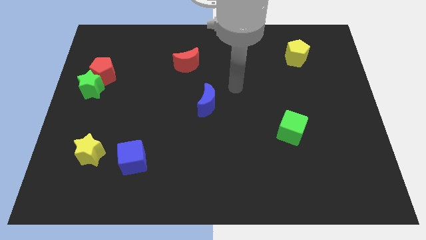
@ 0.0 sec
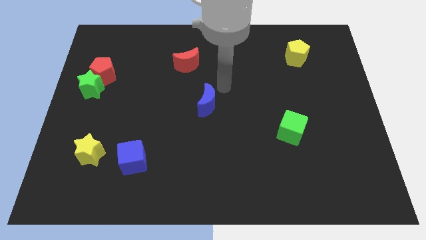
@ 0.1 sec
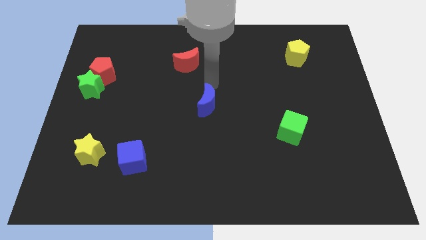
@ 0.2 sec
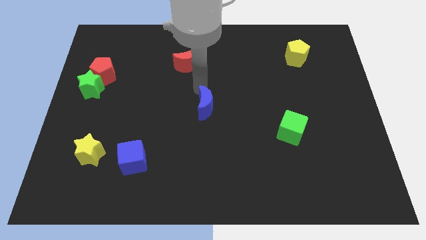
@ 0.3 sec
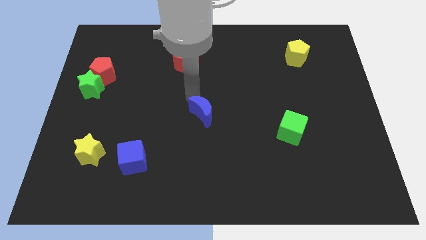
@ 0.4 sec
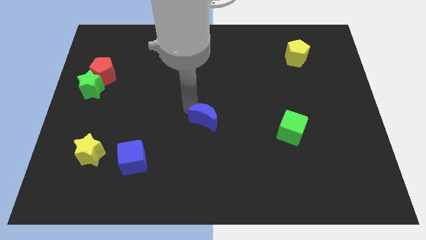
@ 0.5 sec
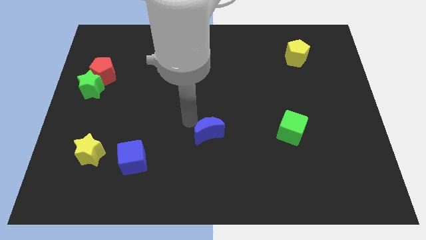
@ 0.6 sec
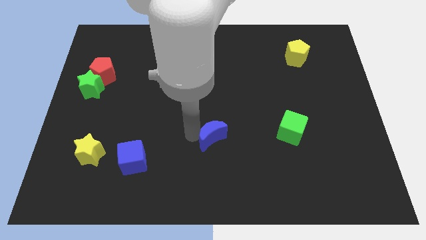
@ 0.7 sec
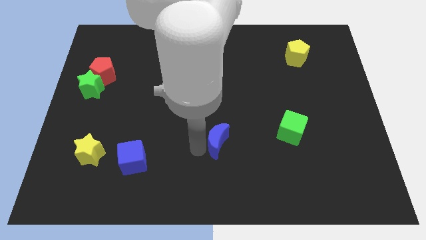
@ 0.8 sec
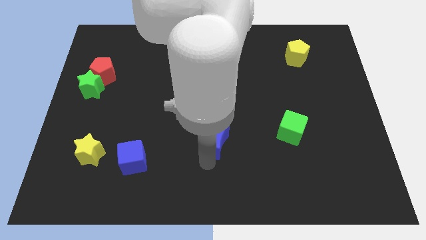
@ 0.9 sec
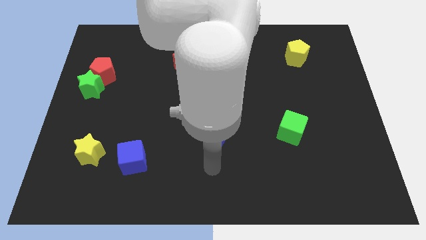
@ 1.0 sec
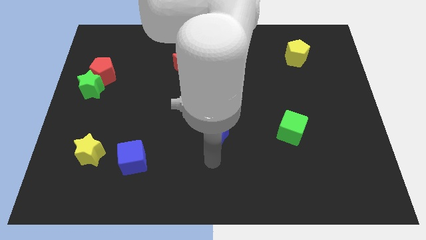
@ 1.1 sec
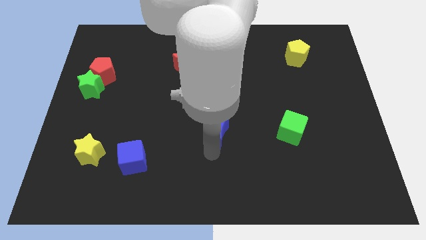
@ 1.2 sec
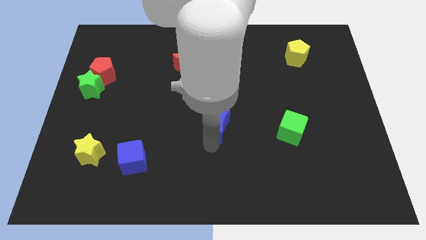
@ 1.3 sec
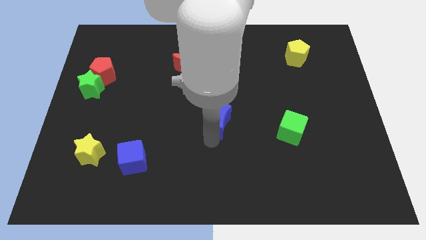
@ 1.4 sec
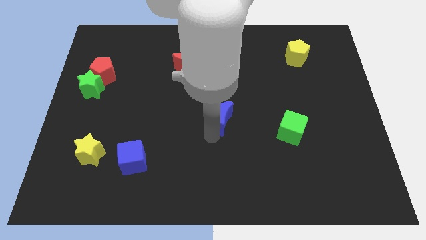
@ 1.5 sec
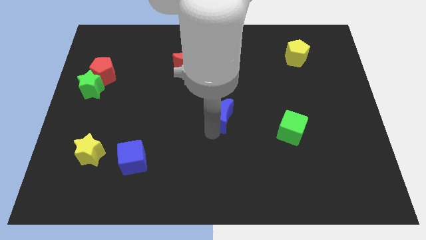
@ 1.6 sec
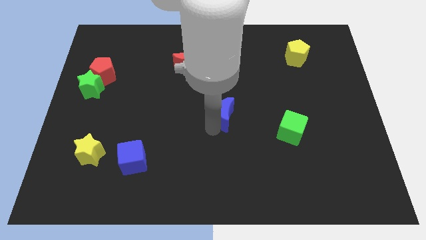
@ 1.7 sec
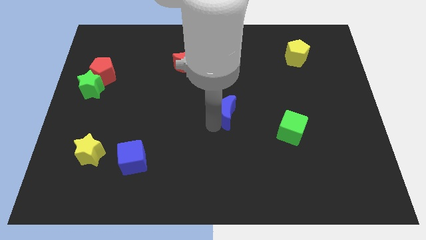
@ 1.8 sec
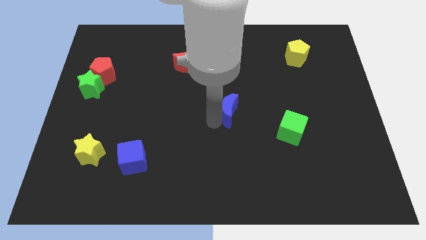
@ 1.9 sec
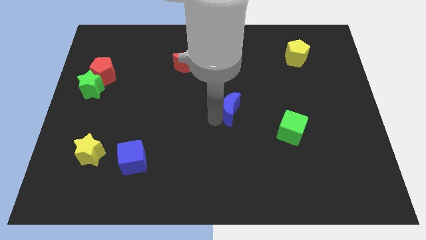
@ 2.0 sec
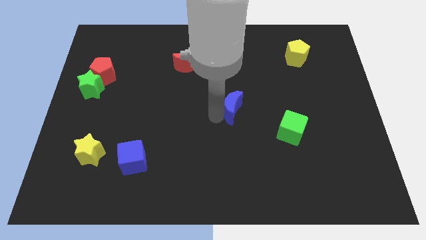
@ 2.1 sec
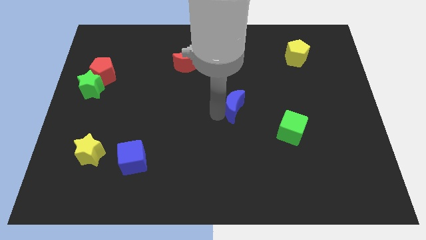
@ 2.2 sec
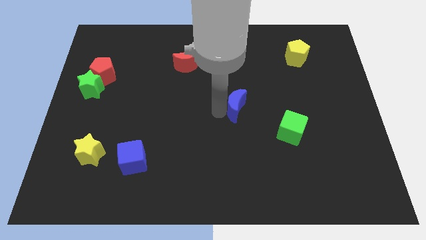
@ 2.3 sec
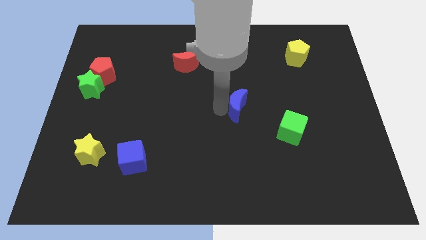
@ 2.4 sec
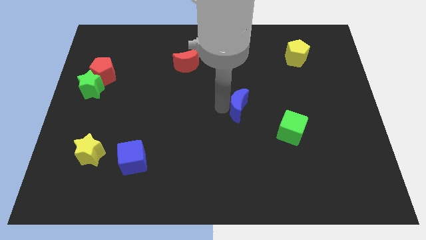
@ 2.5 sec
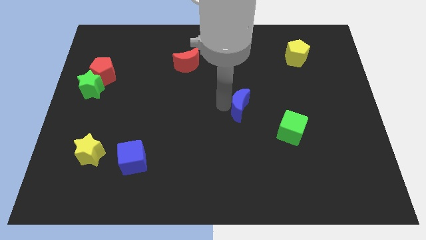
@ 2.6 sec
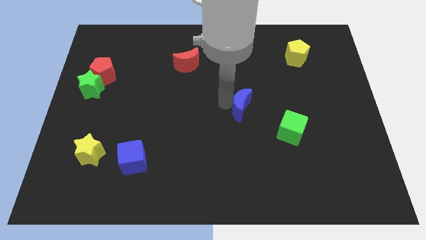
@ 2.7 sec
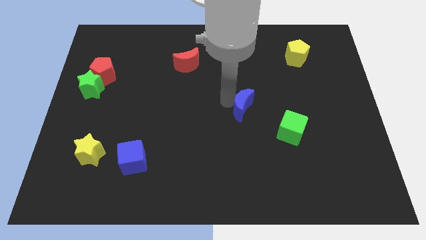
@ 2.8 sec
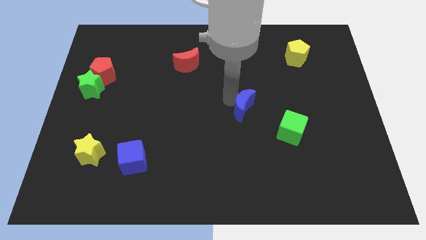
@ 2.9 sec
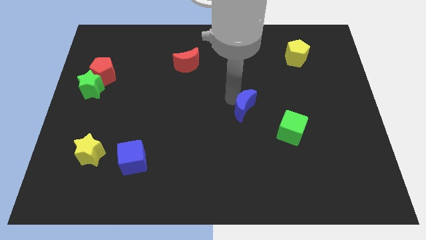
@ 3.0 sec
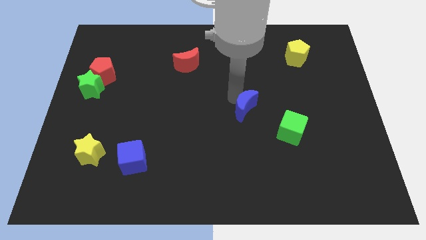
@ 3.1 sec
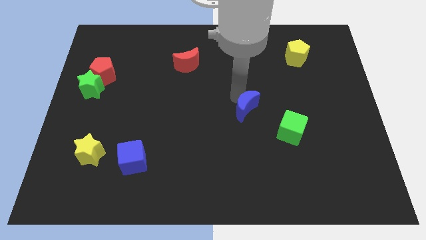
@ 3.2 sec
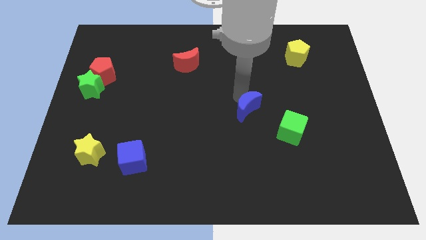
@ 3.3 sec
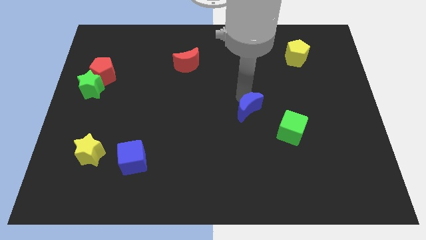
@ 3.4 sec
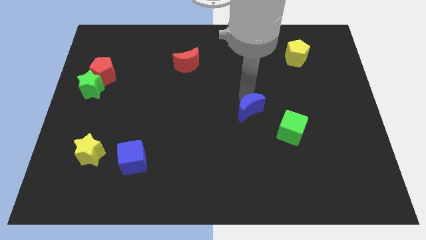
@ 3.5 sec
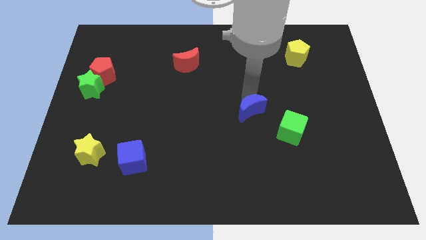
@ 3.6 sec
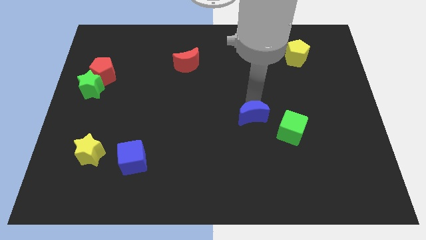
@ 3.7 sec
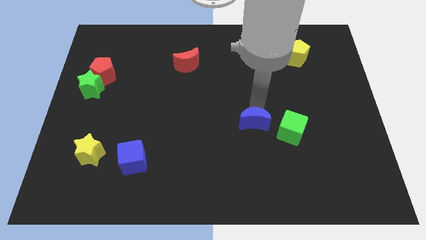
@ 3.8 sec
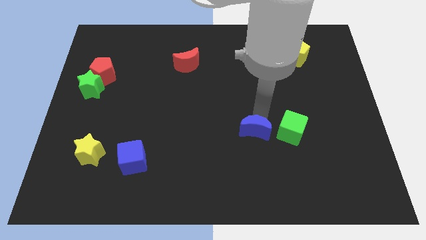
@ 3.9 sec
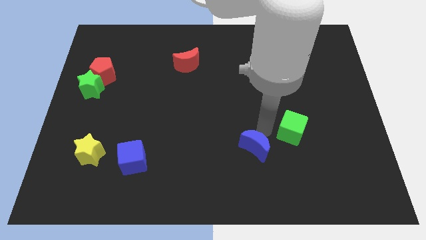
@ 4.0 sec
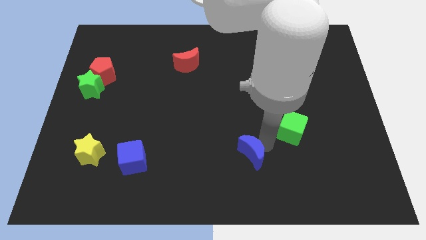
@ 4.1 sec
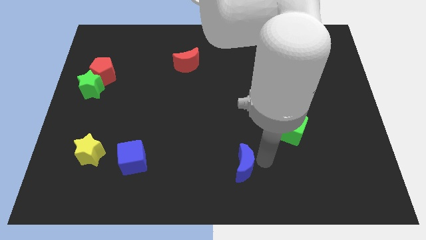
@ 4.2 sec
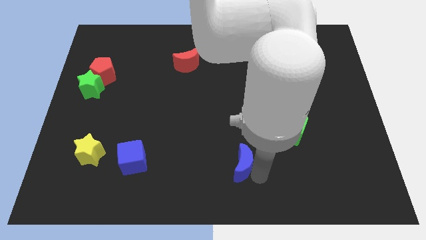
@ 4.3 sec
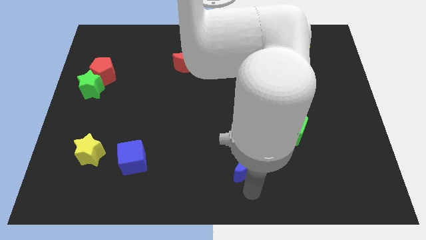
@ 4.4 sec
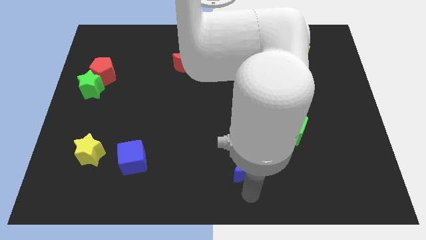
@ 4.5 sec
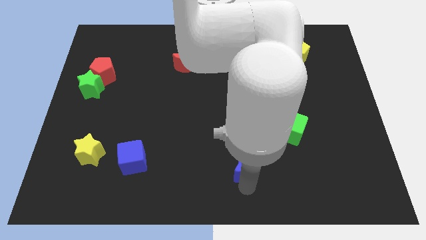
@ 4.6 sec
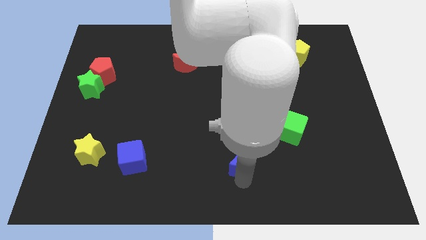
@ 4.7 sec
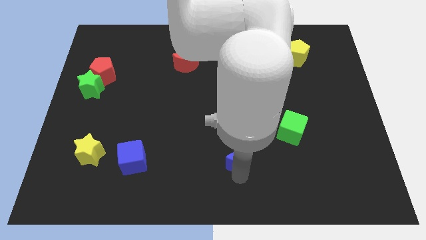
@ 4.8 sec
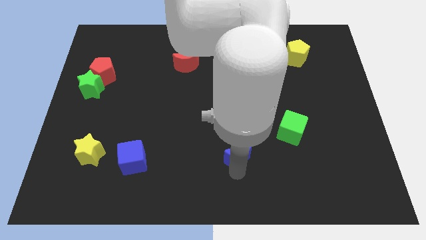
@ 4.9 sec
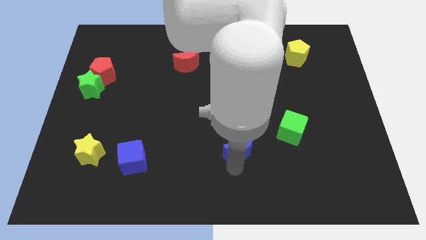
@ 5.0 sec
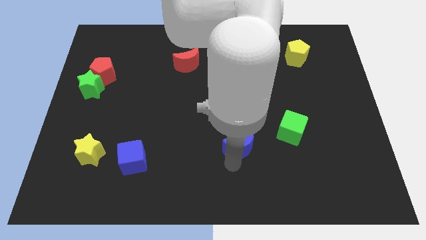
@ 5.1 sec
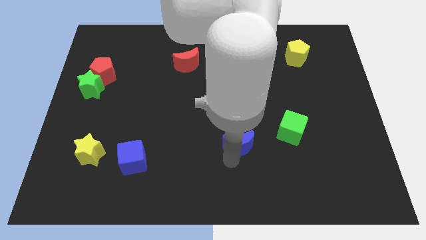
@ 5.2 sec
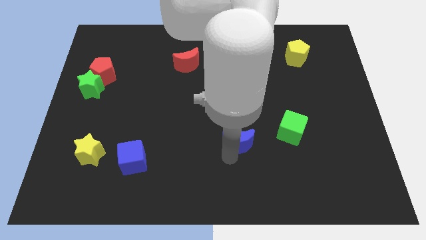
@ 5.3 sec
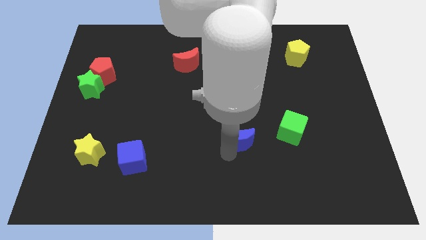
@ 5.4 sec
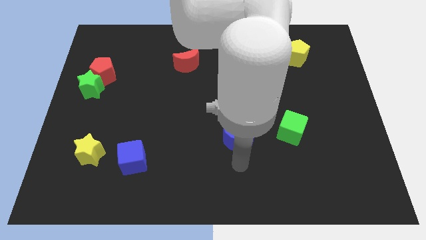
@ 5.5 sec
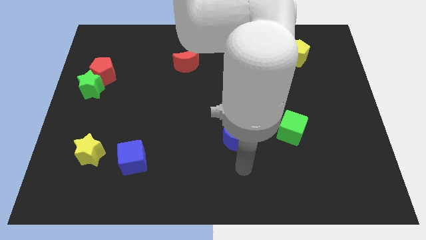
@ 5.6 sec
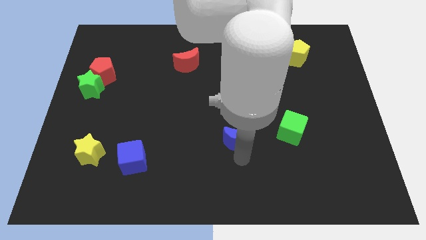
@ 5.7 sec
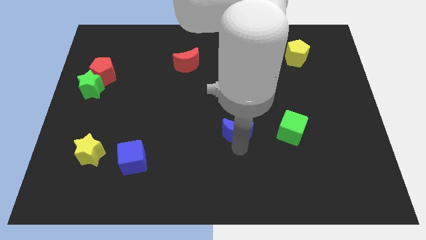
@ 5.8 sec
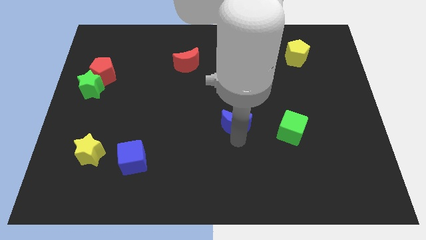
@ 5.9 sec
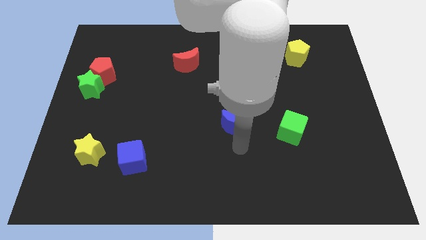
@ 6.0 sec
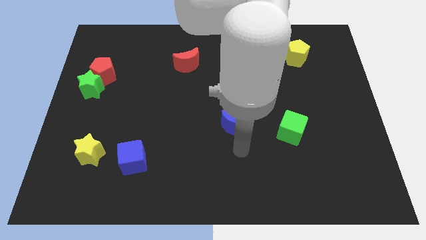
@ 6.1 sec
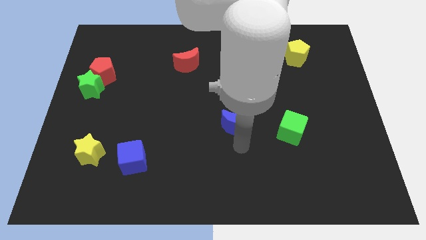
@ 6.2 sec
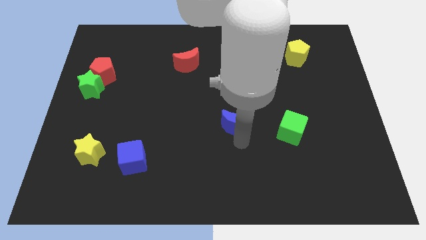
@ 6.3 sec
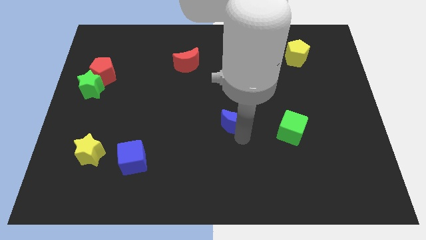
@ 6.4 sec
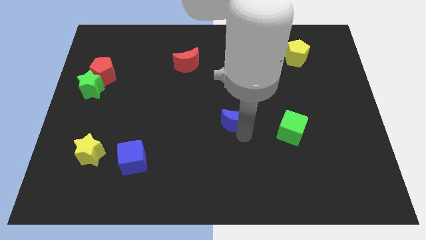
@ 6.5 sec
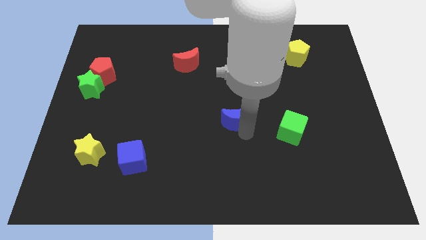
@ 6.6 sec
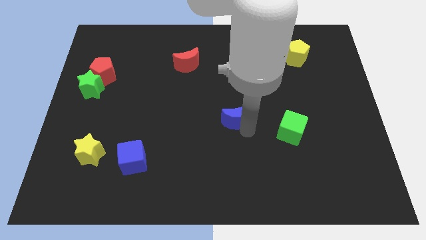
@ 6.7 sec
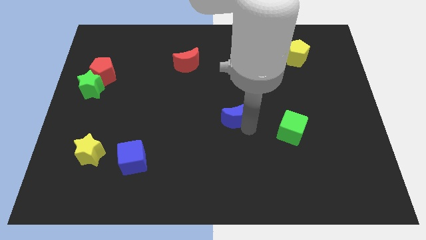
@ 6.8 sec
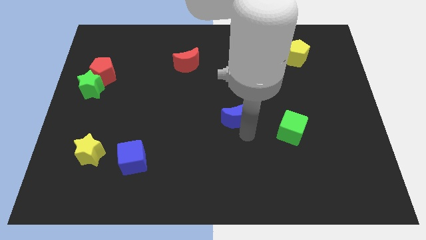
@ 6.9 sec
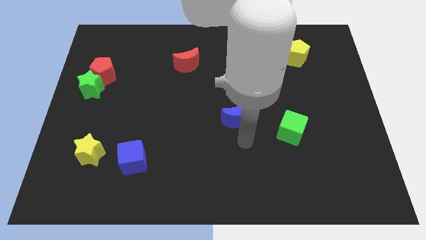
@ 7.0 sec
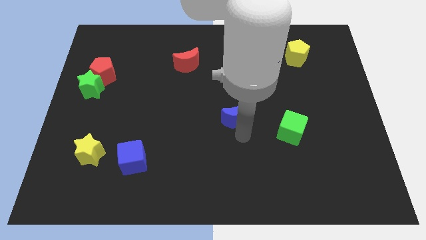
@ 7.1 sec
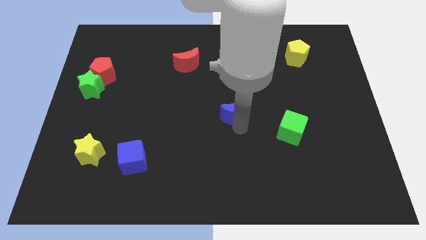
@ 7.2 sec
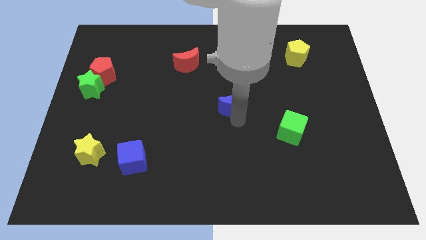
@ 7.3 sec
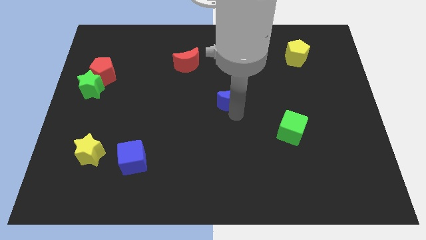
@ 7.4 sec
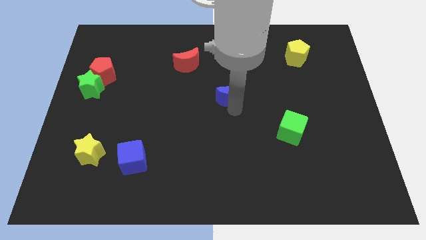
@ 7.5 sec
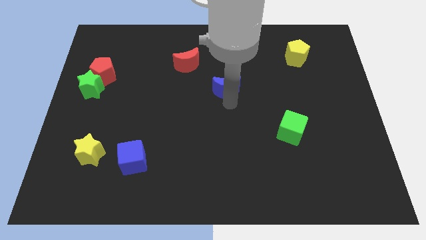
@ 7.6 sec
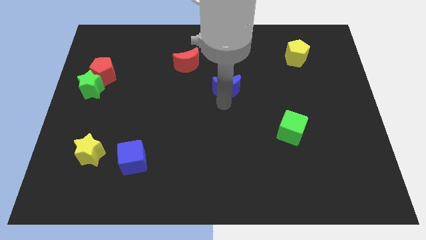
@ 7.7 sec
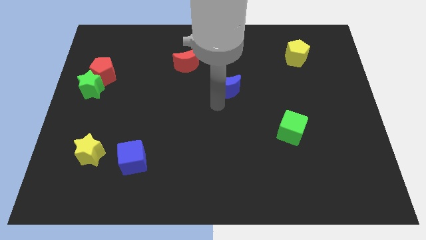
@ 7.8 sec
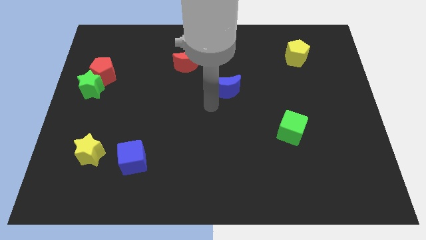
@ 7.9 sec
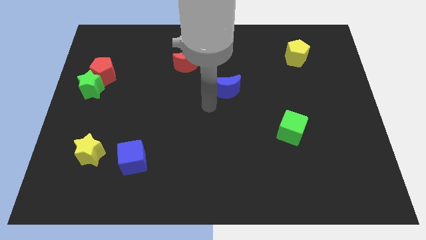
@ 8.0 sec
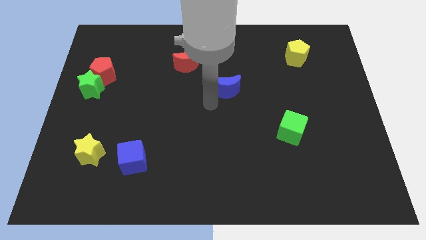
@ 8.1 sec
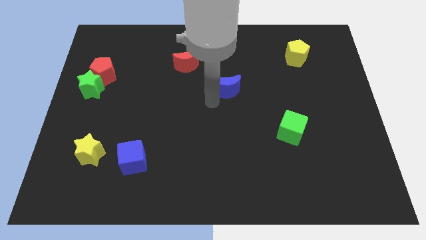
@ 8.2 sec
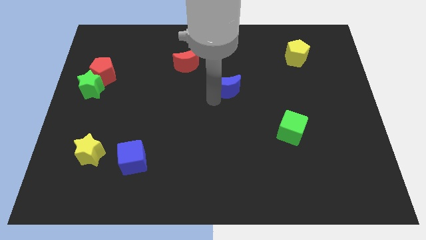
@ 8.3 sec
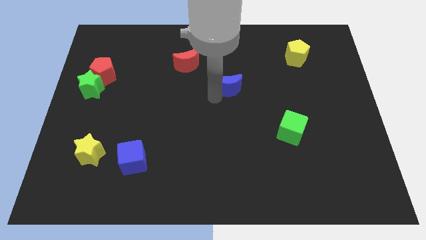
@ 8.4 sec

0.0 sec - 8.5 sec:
slightly slide the blue moon up and then to the right

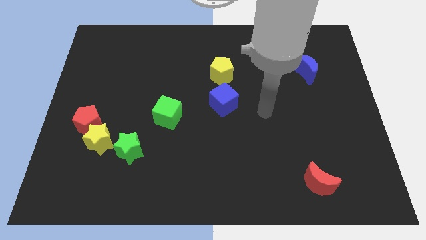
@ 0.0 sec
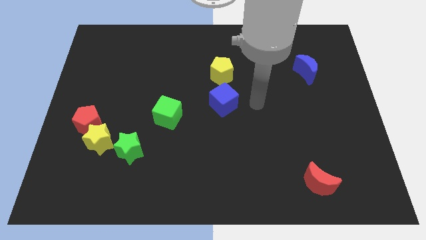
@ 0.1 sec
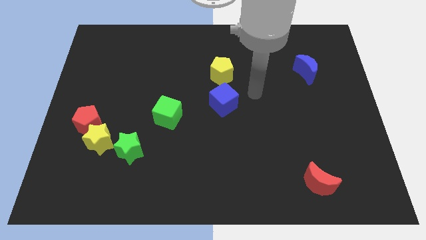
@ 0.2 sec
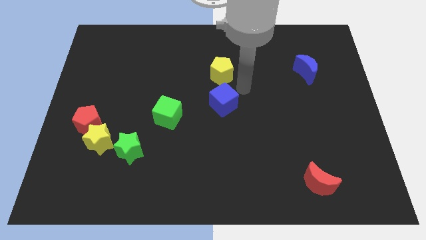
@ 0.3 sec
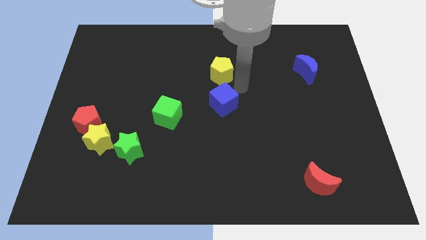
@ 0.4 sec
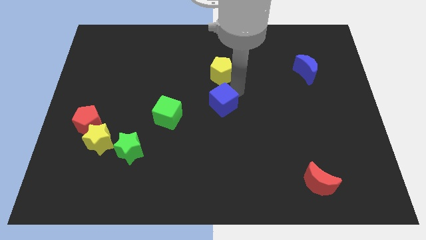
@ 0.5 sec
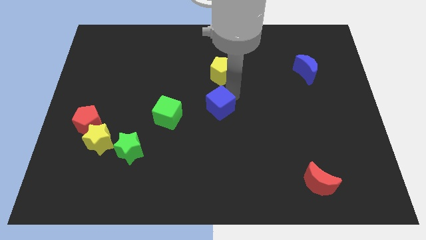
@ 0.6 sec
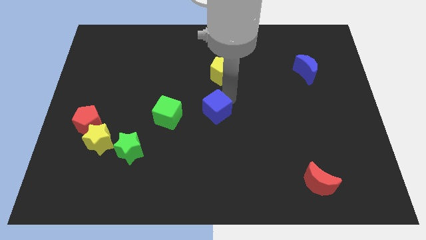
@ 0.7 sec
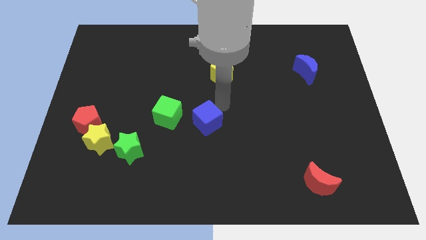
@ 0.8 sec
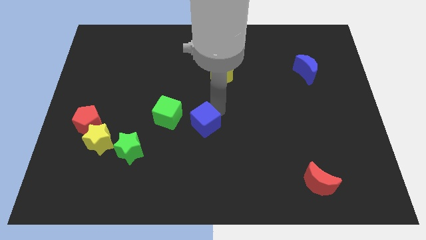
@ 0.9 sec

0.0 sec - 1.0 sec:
slightly push the blue cube down and left diagonally
